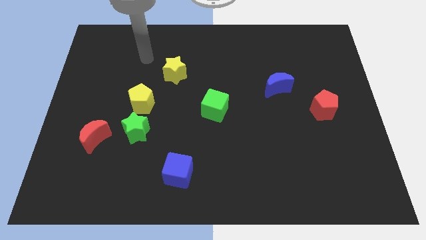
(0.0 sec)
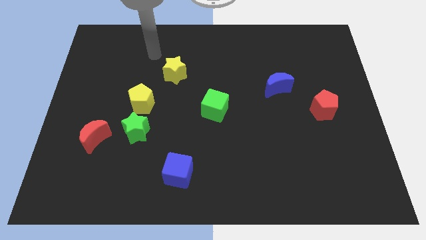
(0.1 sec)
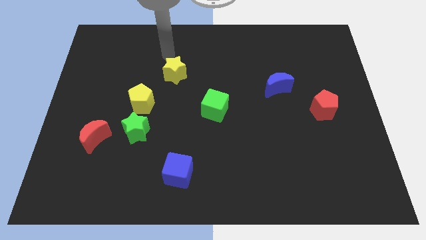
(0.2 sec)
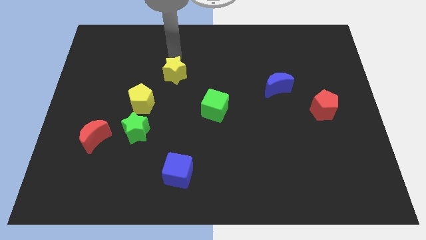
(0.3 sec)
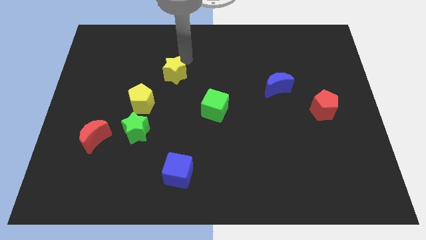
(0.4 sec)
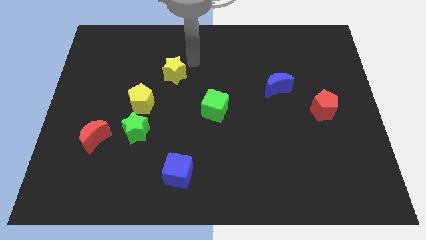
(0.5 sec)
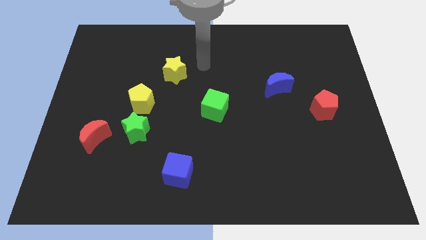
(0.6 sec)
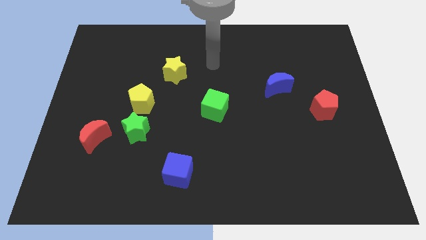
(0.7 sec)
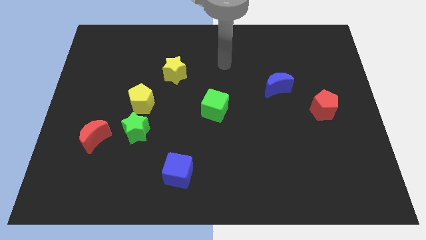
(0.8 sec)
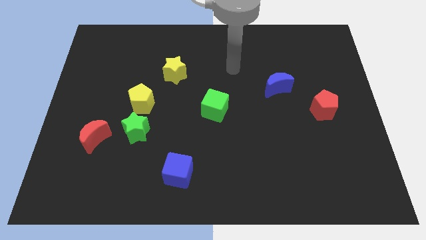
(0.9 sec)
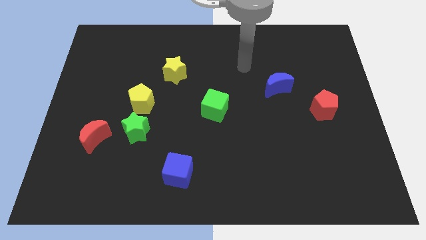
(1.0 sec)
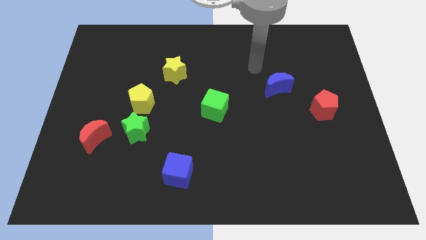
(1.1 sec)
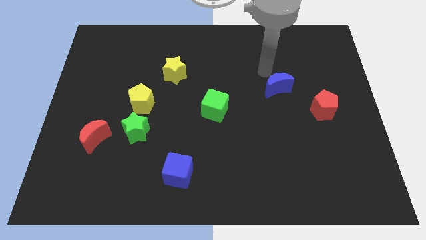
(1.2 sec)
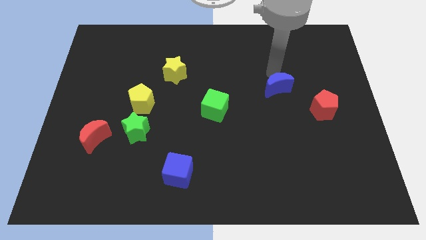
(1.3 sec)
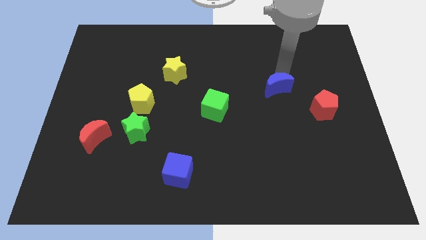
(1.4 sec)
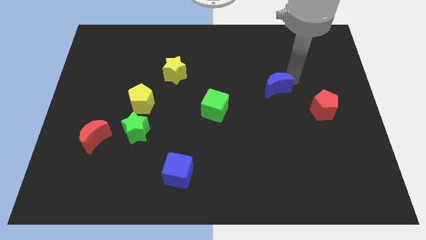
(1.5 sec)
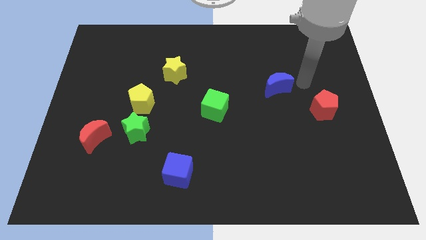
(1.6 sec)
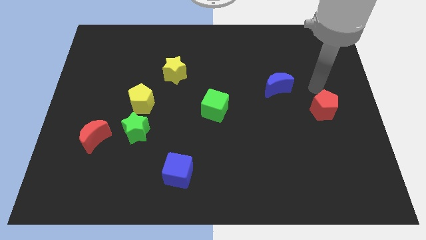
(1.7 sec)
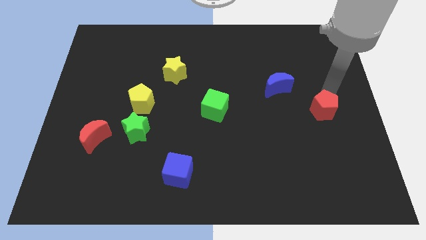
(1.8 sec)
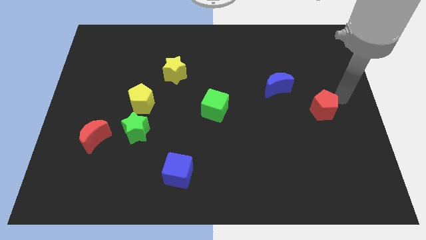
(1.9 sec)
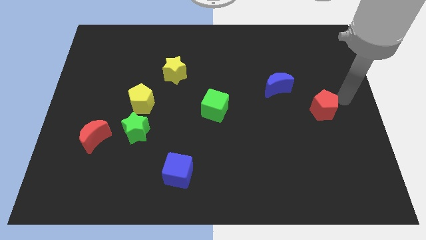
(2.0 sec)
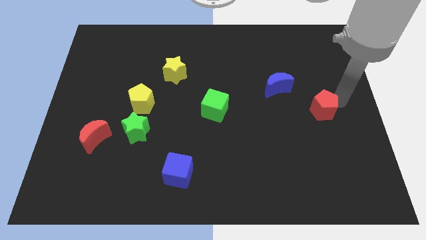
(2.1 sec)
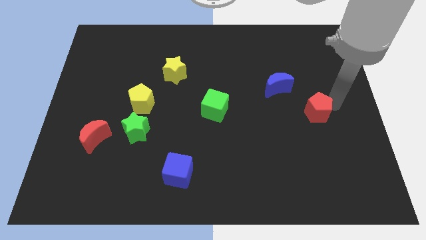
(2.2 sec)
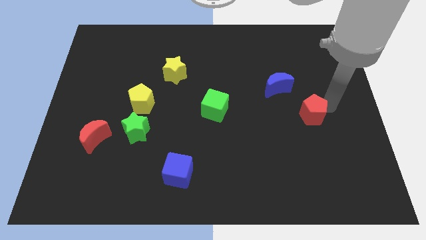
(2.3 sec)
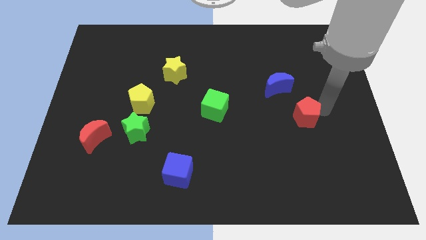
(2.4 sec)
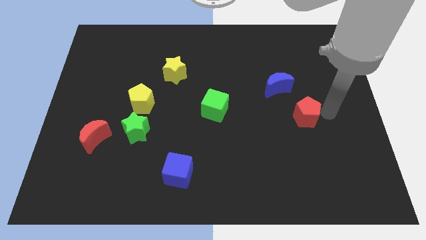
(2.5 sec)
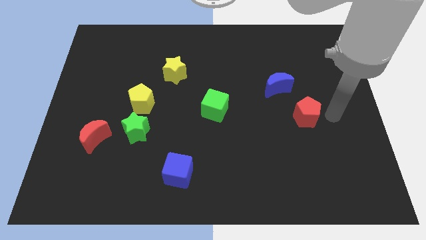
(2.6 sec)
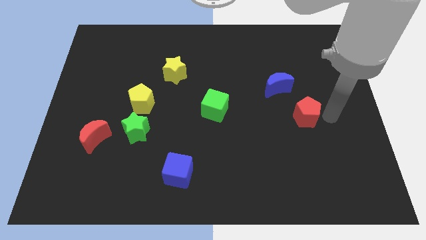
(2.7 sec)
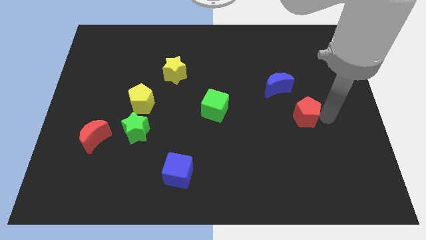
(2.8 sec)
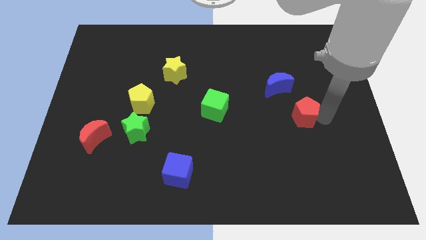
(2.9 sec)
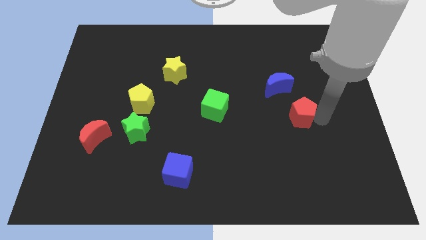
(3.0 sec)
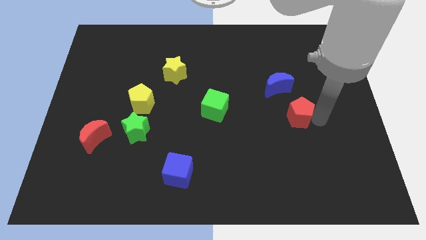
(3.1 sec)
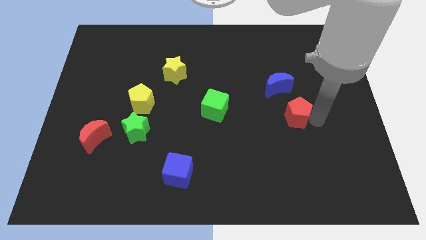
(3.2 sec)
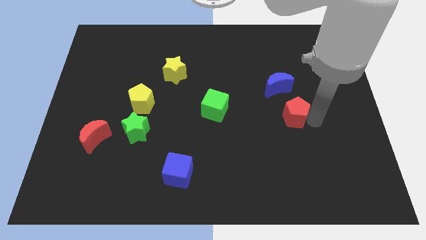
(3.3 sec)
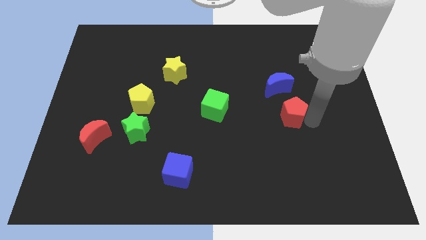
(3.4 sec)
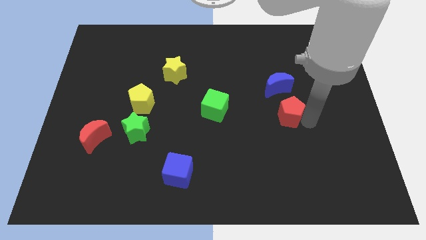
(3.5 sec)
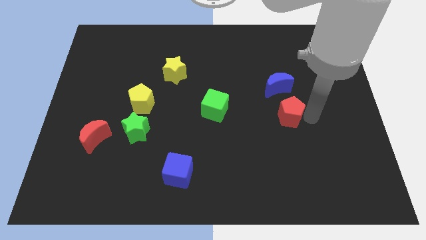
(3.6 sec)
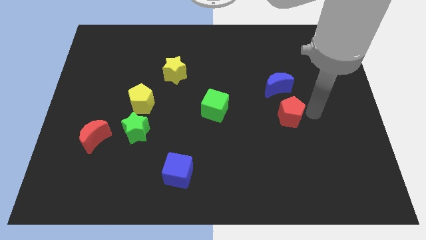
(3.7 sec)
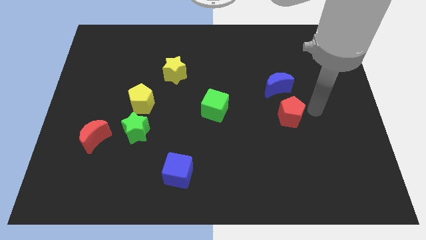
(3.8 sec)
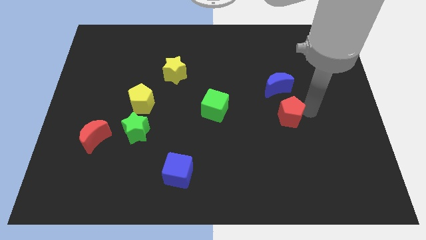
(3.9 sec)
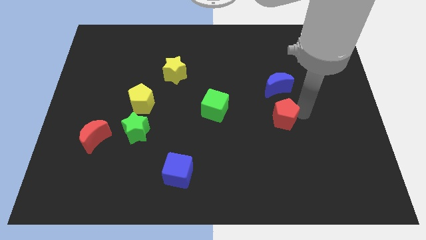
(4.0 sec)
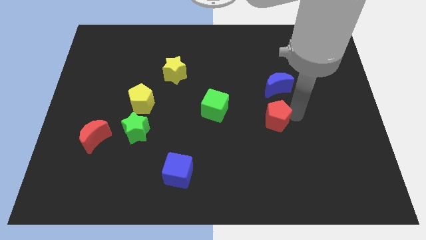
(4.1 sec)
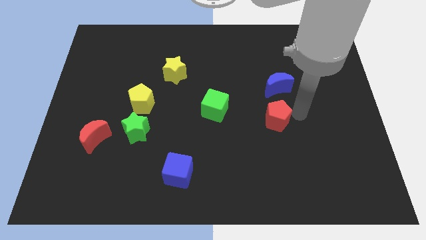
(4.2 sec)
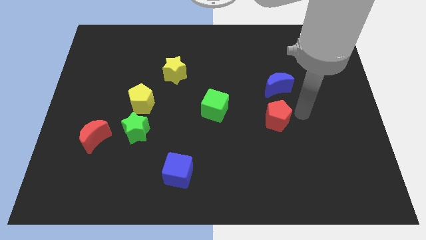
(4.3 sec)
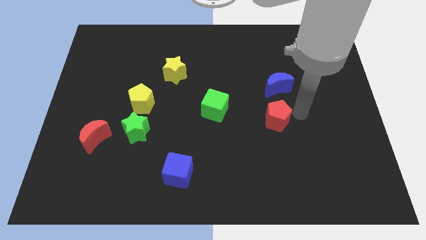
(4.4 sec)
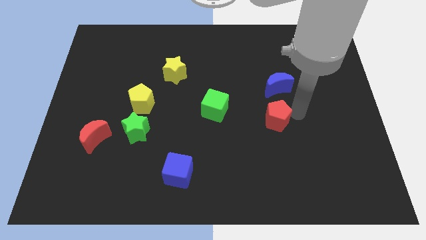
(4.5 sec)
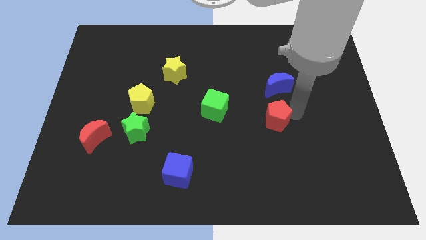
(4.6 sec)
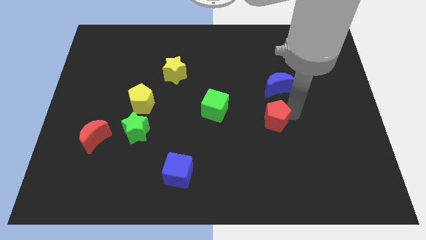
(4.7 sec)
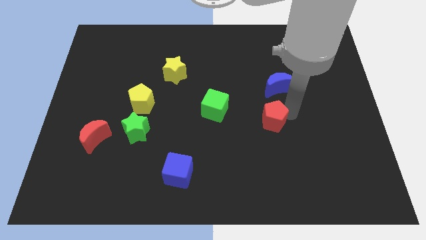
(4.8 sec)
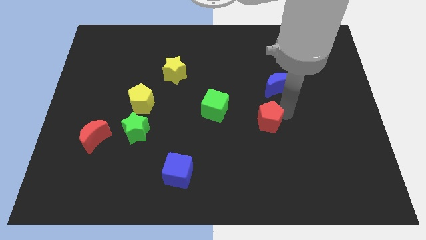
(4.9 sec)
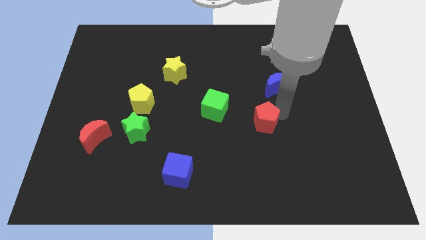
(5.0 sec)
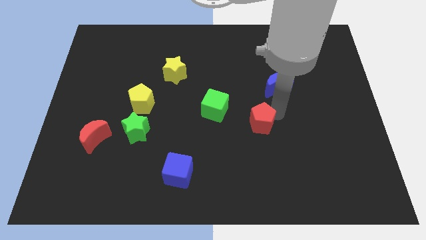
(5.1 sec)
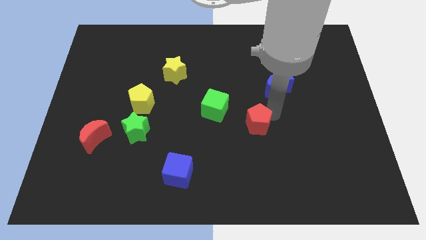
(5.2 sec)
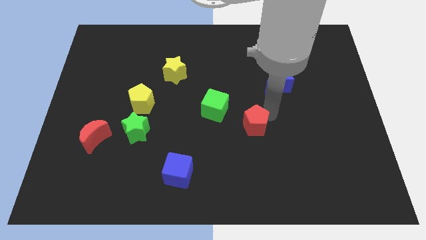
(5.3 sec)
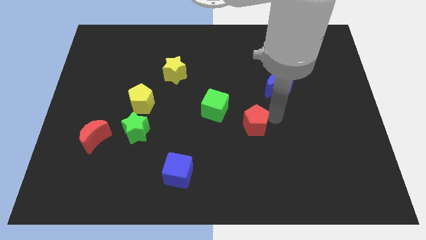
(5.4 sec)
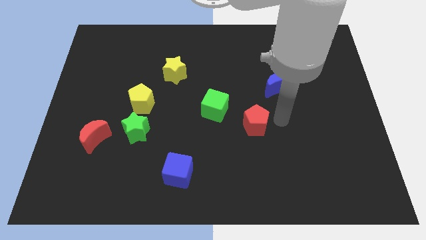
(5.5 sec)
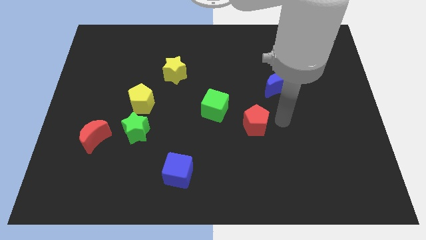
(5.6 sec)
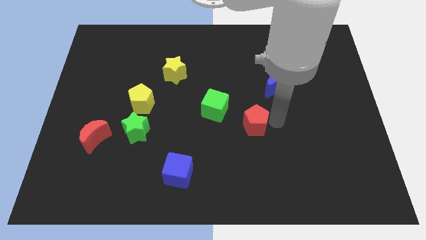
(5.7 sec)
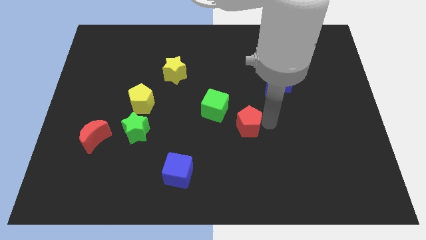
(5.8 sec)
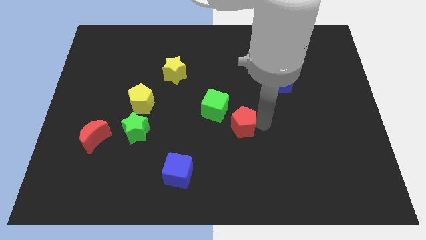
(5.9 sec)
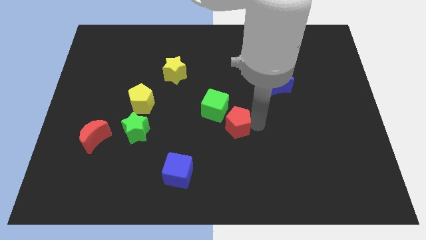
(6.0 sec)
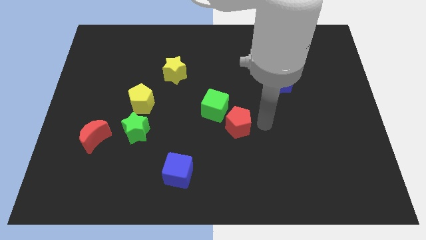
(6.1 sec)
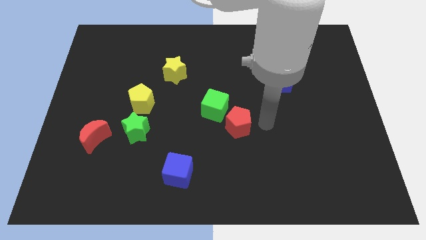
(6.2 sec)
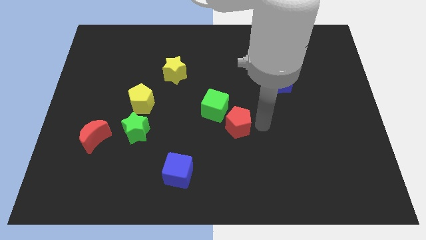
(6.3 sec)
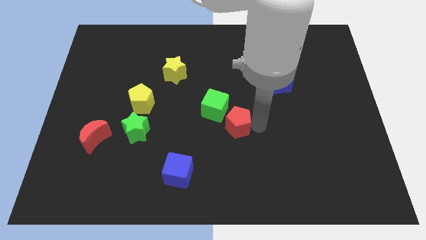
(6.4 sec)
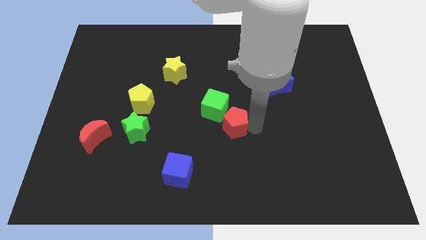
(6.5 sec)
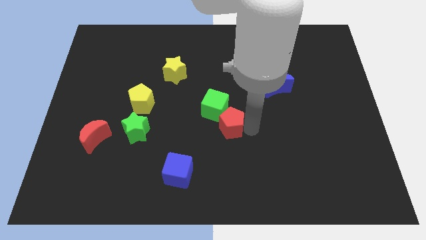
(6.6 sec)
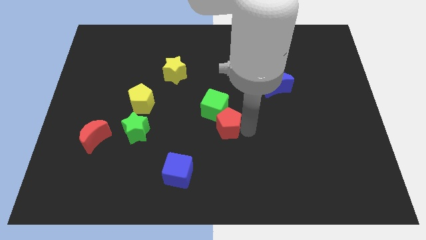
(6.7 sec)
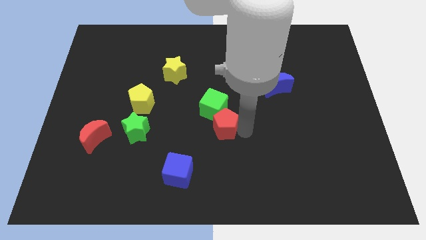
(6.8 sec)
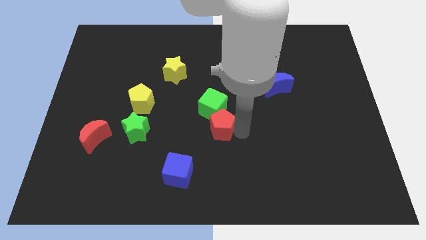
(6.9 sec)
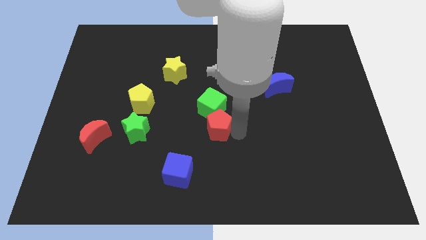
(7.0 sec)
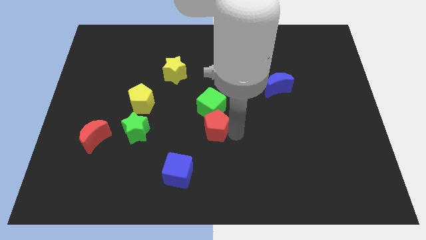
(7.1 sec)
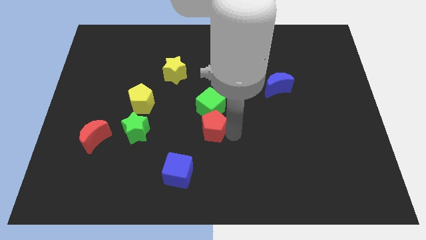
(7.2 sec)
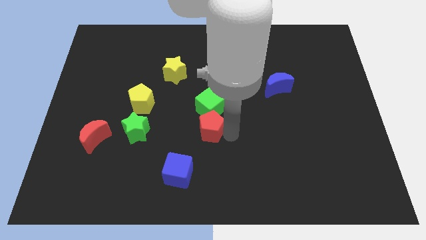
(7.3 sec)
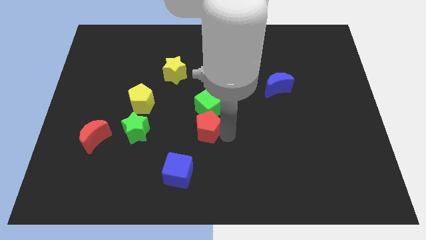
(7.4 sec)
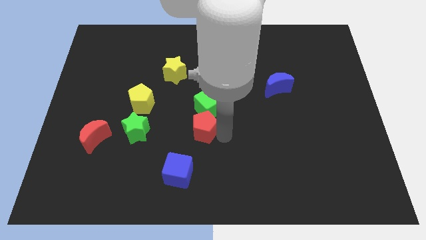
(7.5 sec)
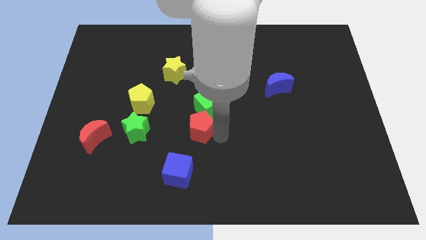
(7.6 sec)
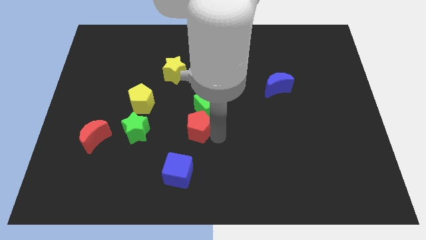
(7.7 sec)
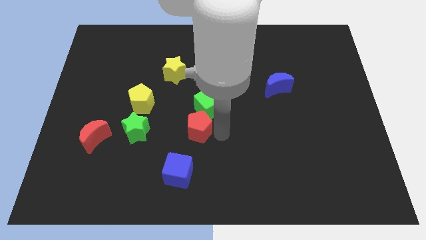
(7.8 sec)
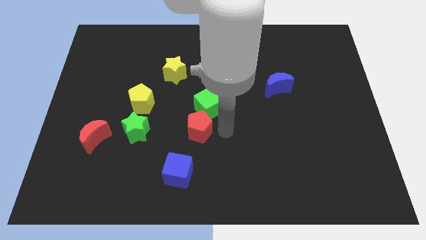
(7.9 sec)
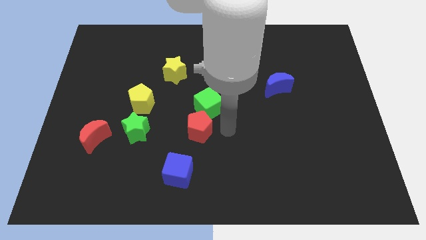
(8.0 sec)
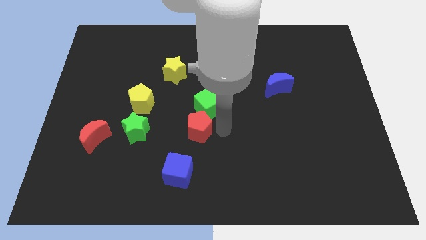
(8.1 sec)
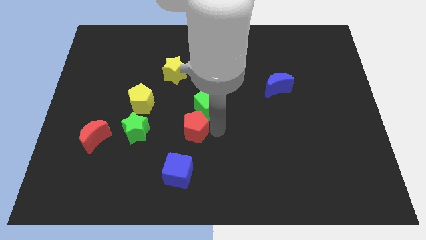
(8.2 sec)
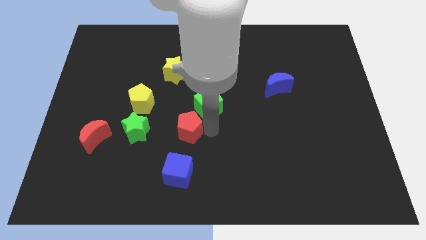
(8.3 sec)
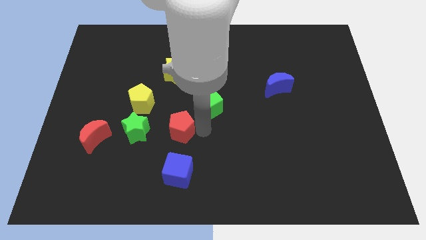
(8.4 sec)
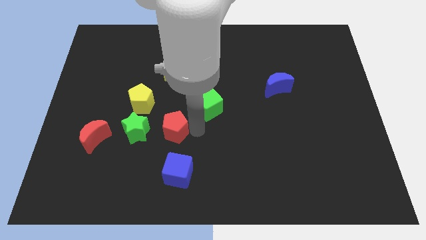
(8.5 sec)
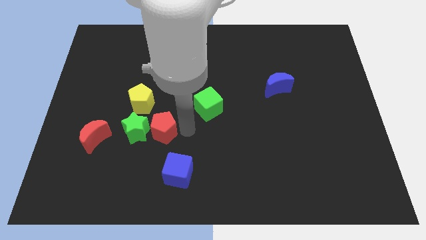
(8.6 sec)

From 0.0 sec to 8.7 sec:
push the red pentagon close to the green star
